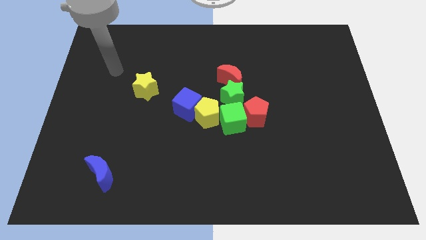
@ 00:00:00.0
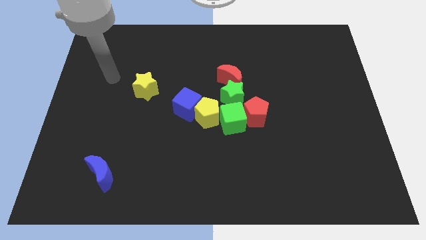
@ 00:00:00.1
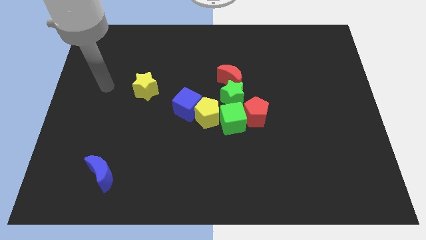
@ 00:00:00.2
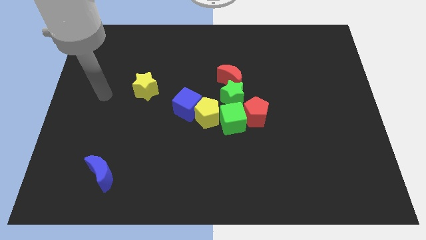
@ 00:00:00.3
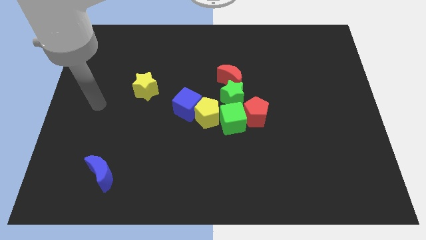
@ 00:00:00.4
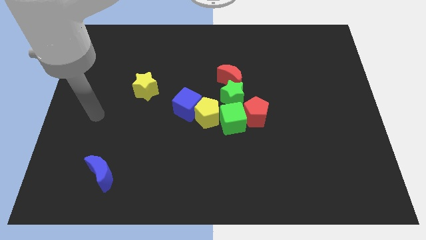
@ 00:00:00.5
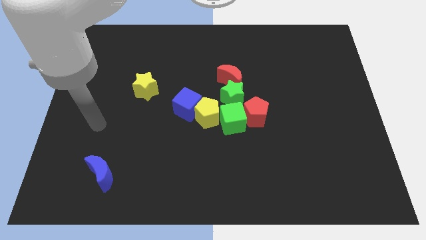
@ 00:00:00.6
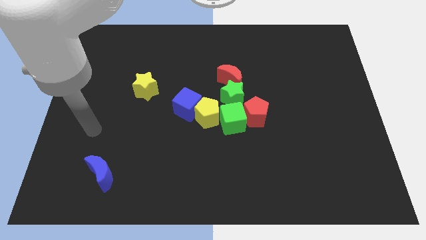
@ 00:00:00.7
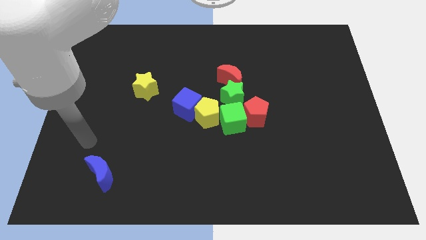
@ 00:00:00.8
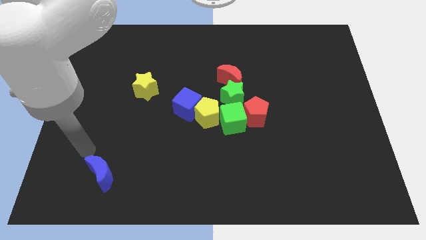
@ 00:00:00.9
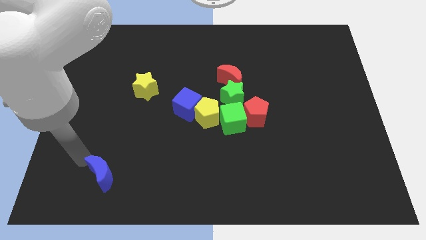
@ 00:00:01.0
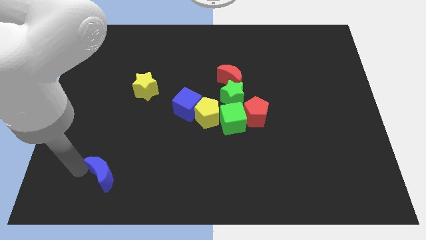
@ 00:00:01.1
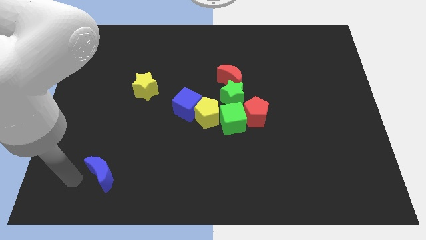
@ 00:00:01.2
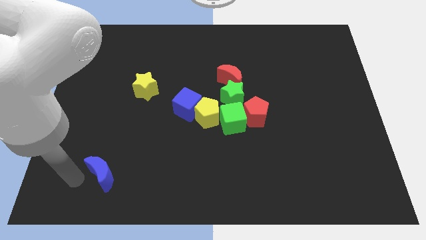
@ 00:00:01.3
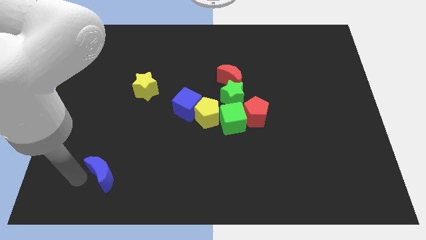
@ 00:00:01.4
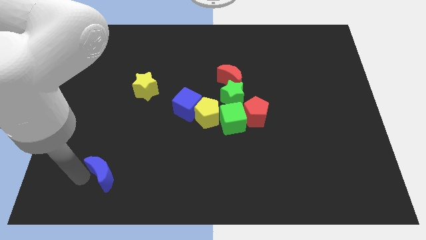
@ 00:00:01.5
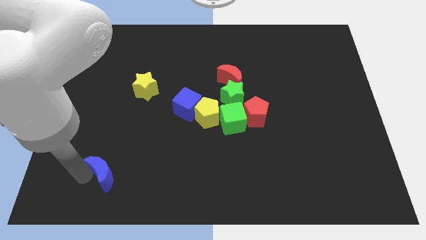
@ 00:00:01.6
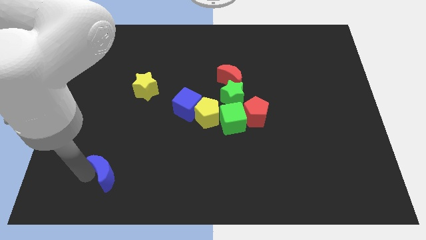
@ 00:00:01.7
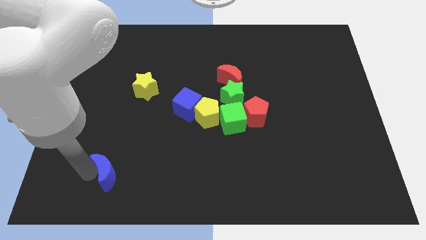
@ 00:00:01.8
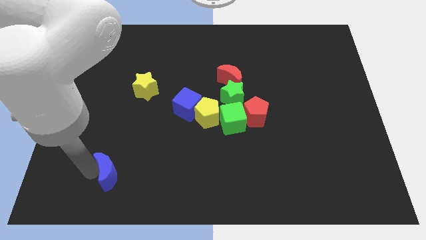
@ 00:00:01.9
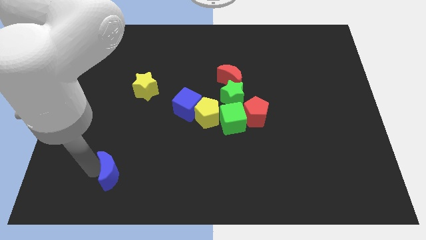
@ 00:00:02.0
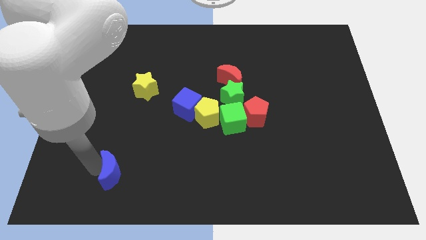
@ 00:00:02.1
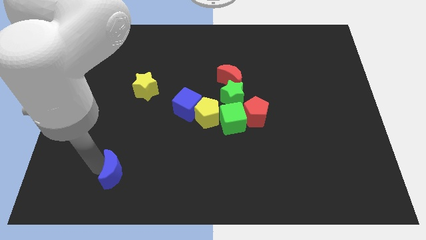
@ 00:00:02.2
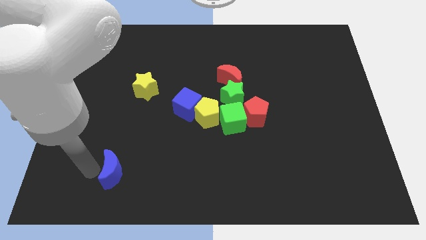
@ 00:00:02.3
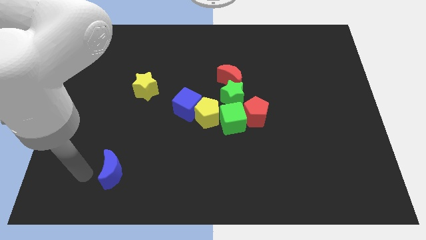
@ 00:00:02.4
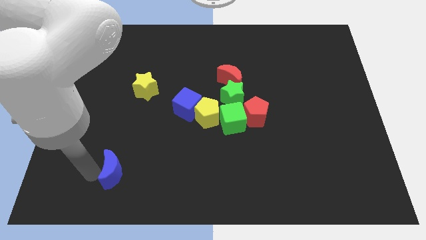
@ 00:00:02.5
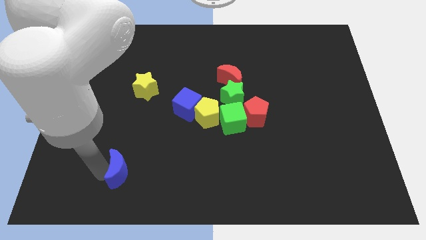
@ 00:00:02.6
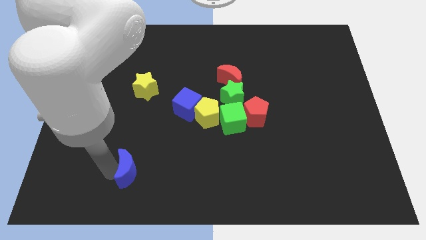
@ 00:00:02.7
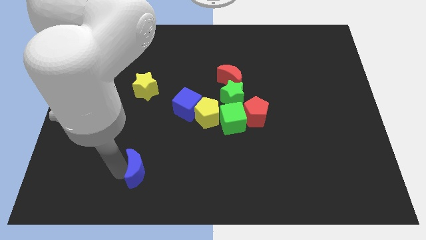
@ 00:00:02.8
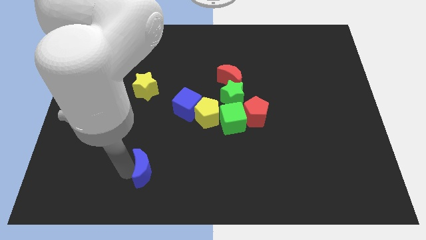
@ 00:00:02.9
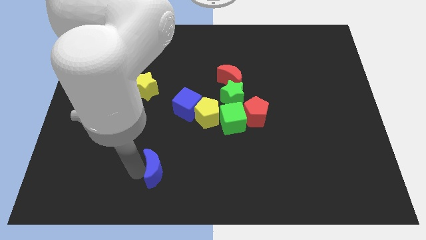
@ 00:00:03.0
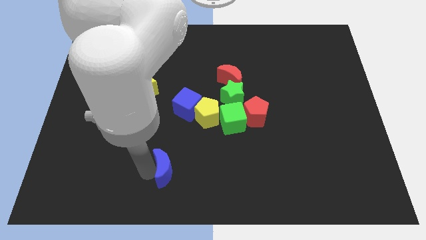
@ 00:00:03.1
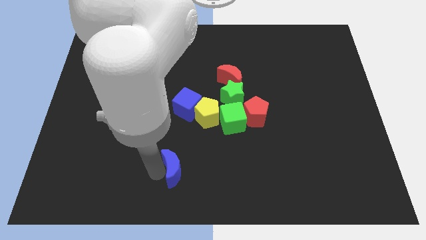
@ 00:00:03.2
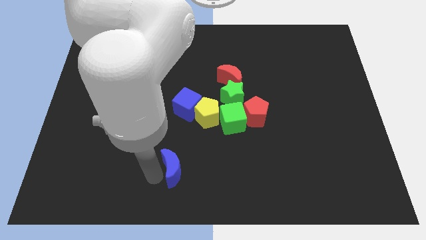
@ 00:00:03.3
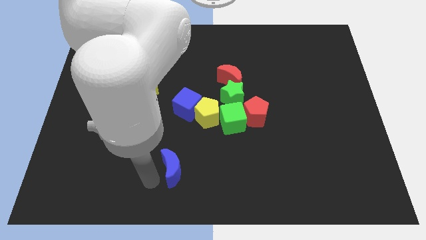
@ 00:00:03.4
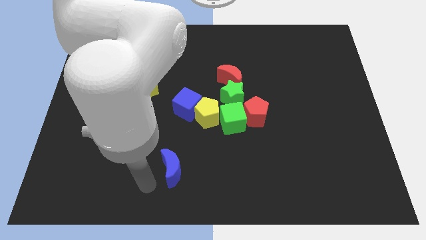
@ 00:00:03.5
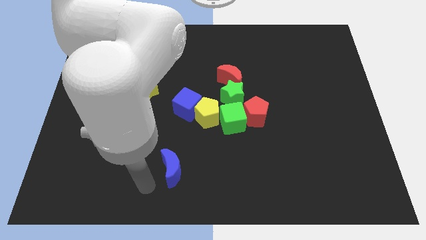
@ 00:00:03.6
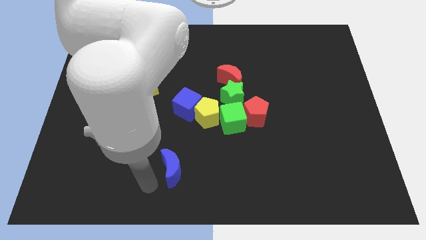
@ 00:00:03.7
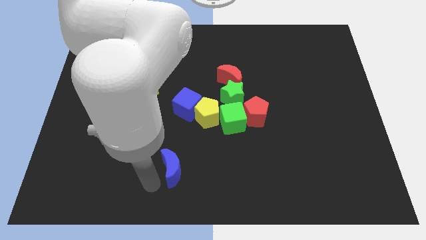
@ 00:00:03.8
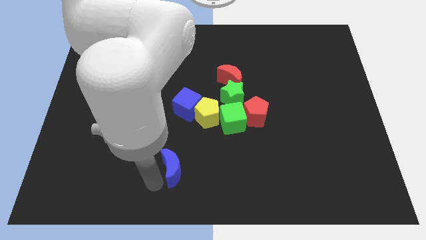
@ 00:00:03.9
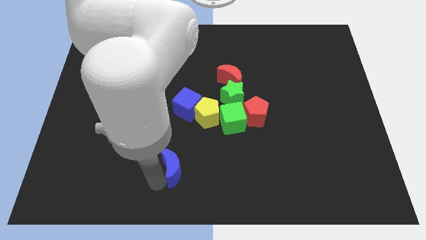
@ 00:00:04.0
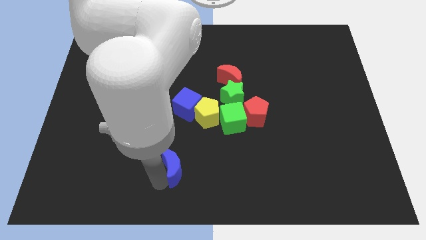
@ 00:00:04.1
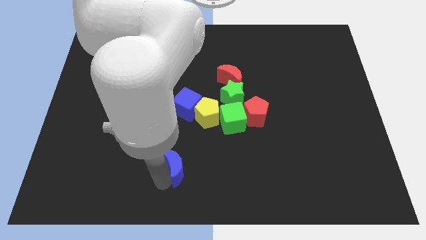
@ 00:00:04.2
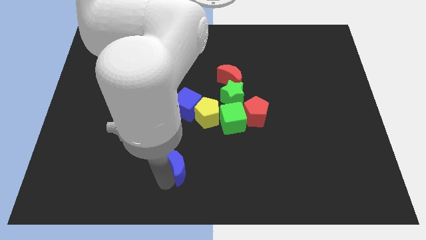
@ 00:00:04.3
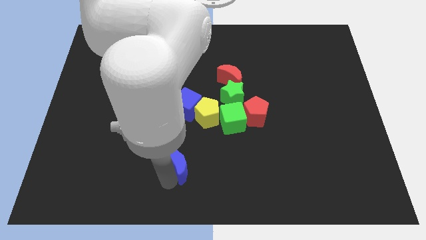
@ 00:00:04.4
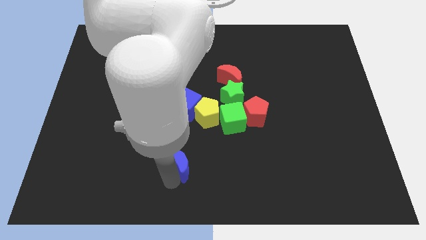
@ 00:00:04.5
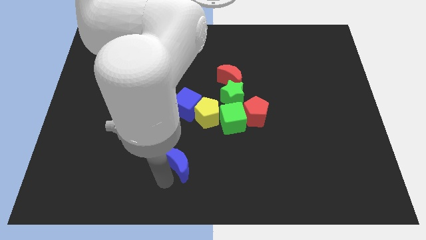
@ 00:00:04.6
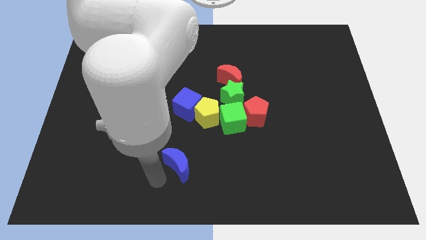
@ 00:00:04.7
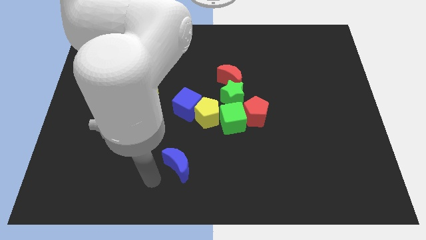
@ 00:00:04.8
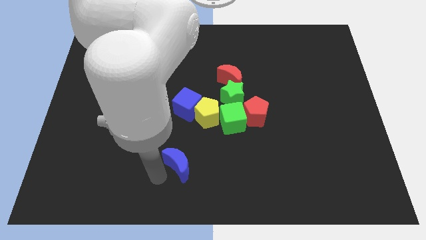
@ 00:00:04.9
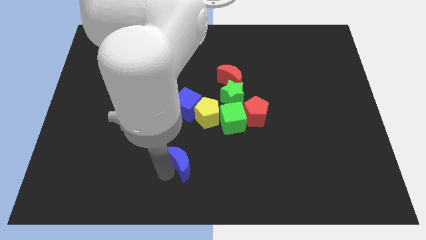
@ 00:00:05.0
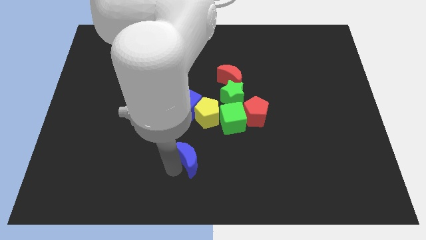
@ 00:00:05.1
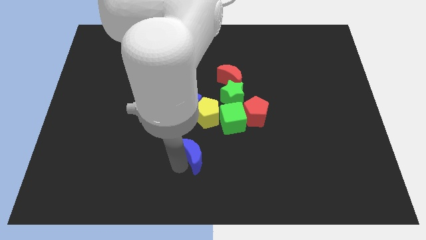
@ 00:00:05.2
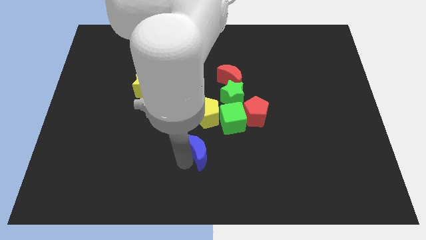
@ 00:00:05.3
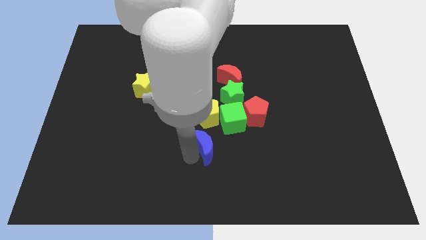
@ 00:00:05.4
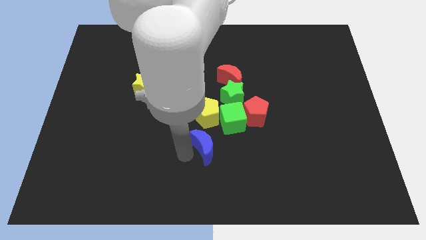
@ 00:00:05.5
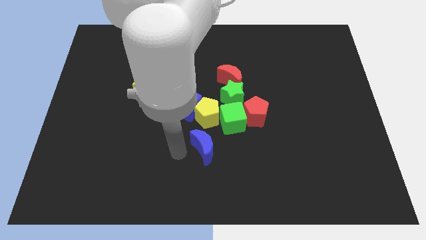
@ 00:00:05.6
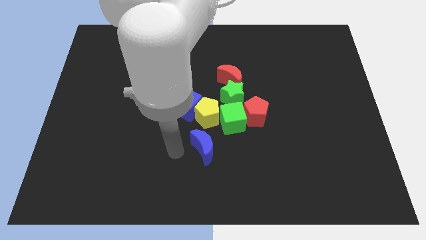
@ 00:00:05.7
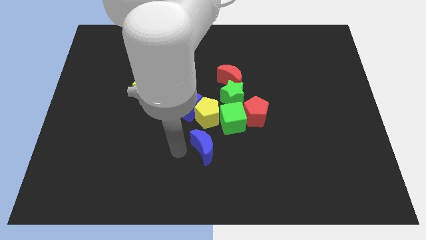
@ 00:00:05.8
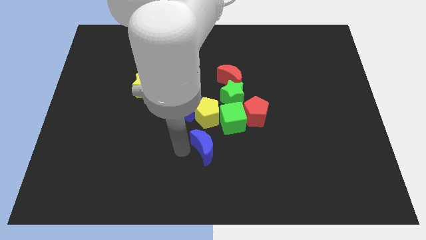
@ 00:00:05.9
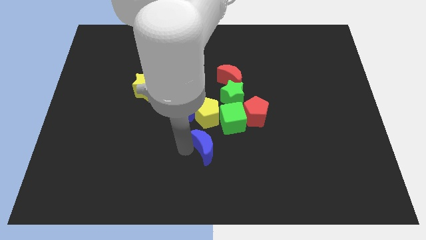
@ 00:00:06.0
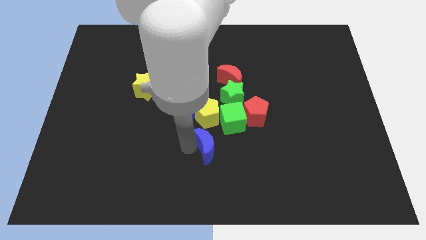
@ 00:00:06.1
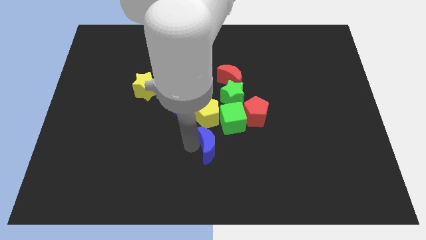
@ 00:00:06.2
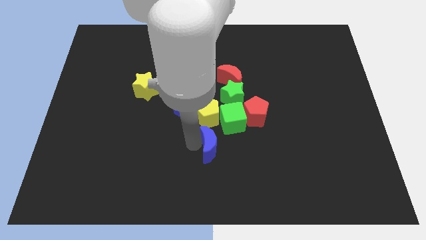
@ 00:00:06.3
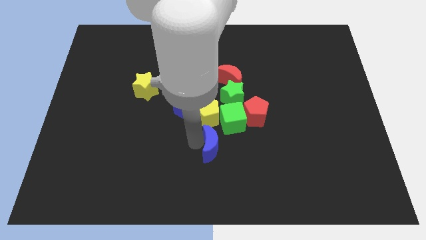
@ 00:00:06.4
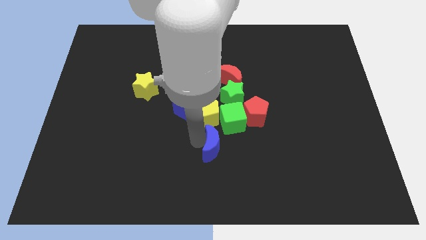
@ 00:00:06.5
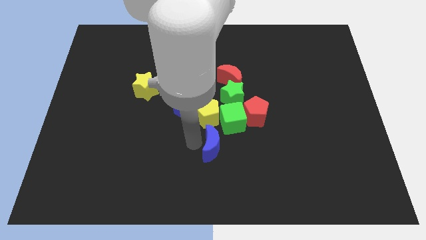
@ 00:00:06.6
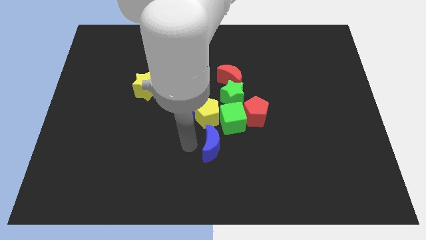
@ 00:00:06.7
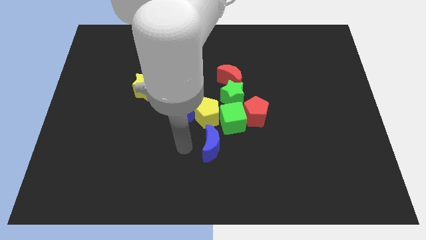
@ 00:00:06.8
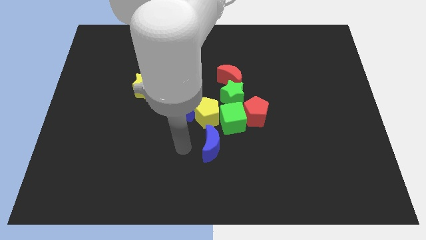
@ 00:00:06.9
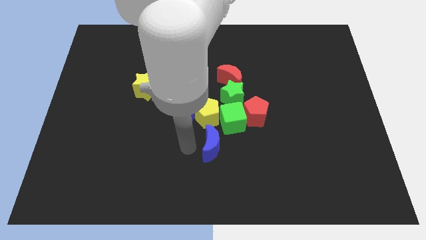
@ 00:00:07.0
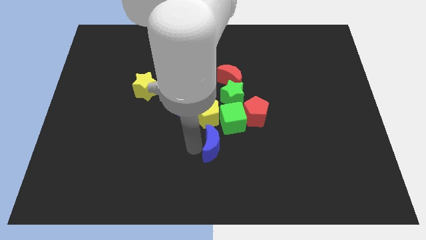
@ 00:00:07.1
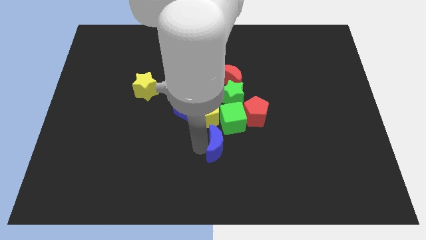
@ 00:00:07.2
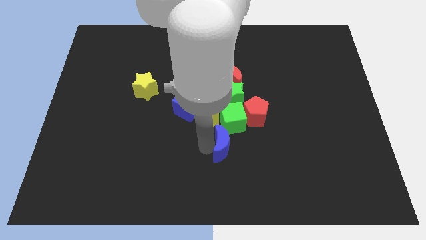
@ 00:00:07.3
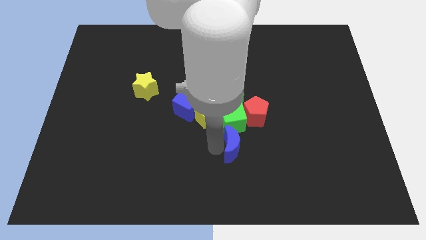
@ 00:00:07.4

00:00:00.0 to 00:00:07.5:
push the blue moon diagonally down and to the right of the green cube
